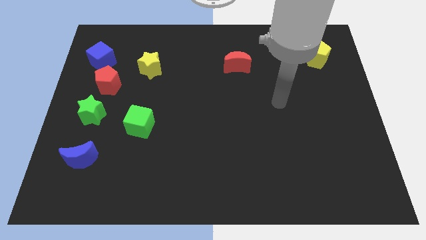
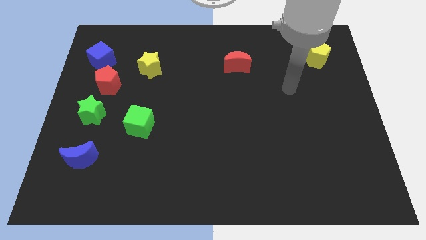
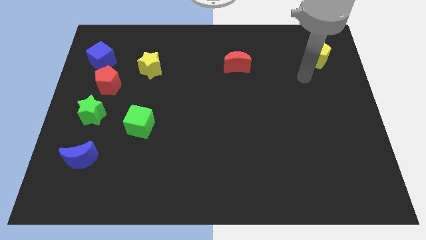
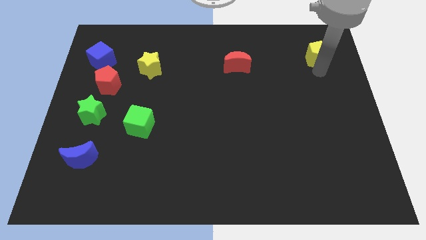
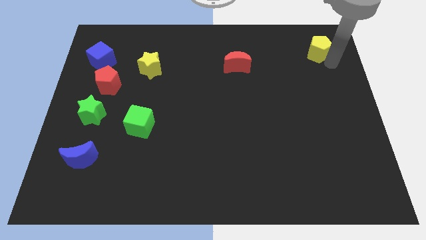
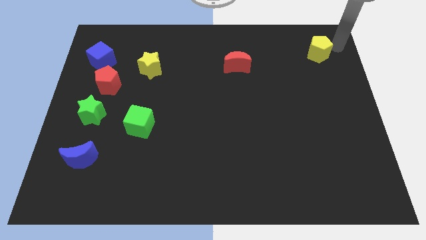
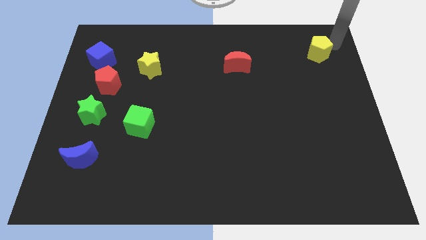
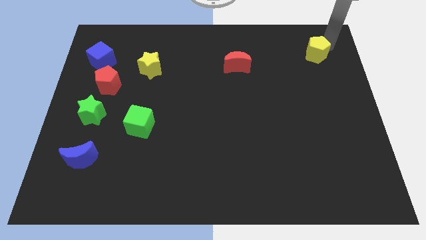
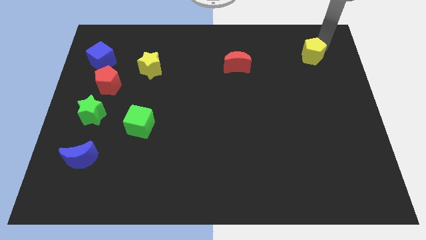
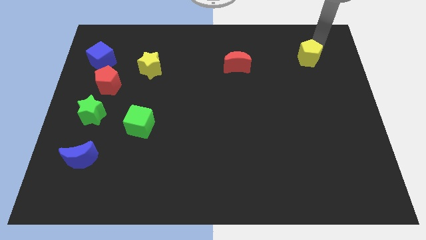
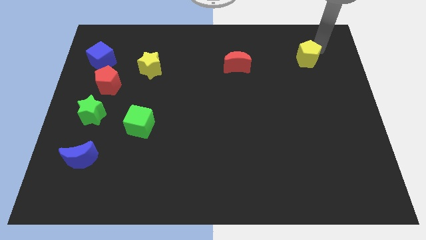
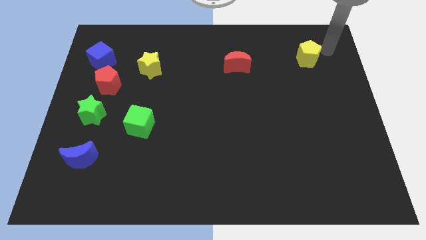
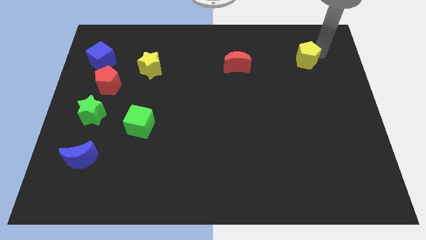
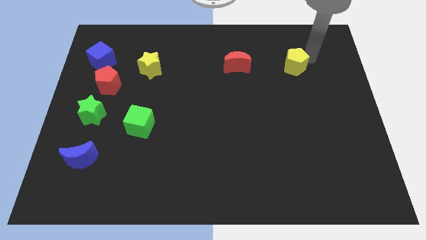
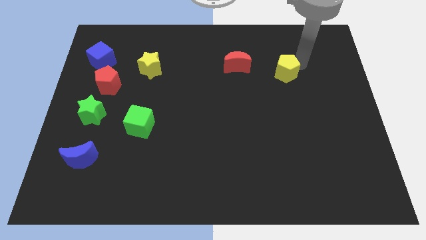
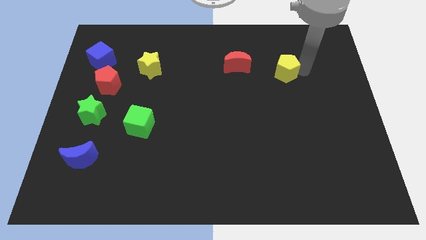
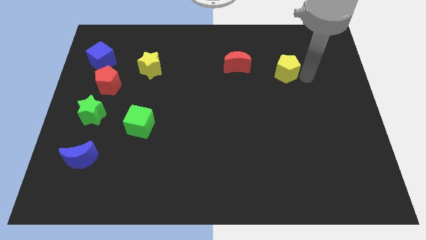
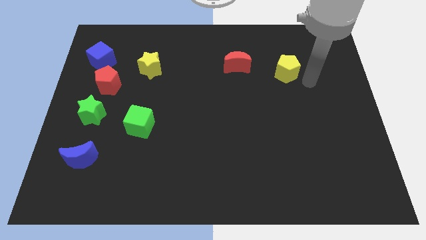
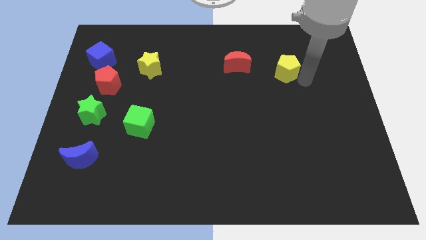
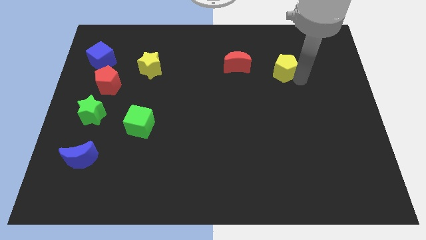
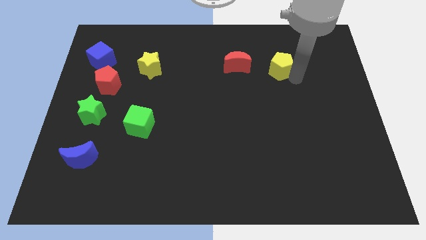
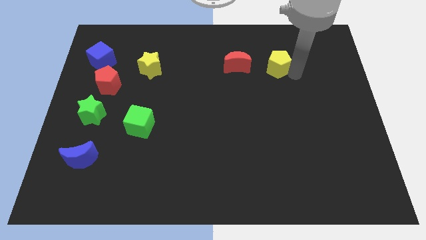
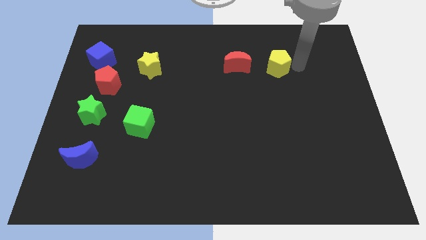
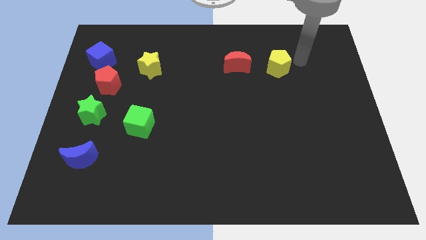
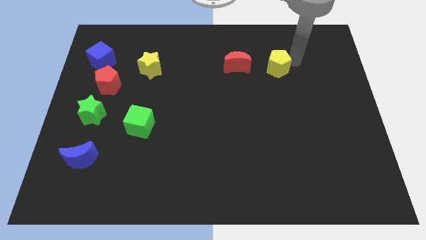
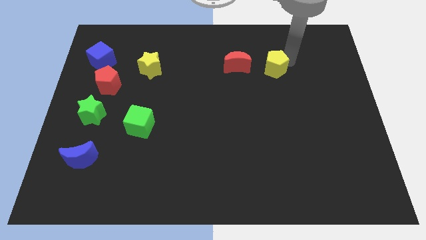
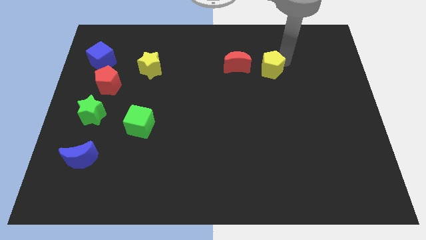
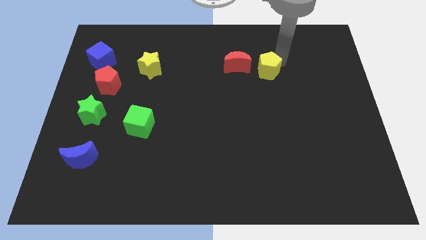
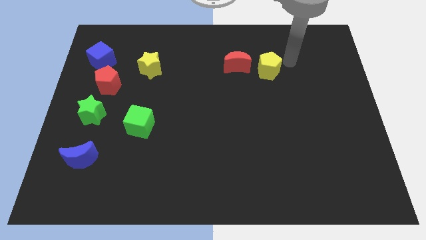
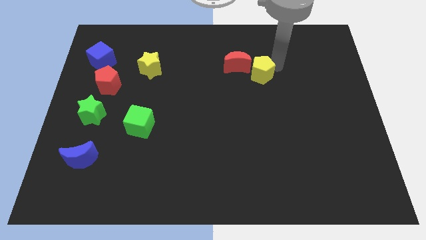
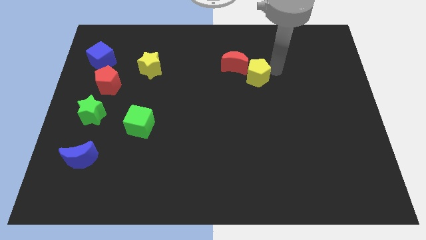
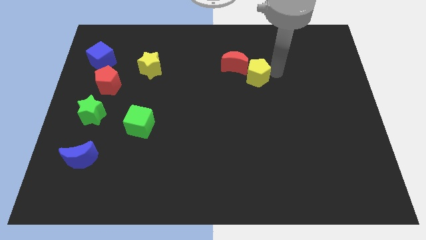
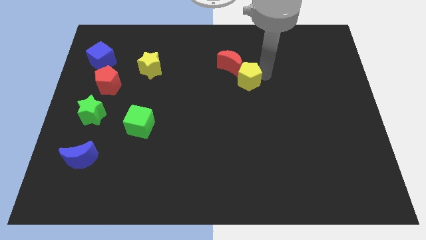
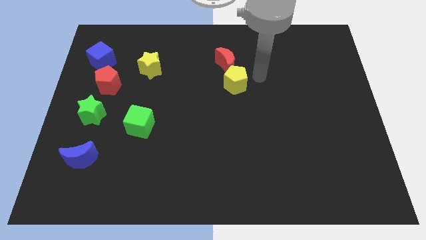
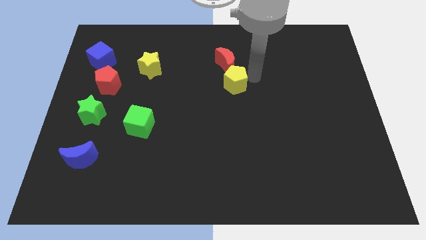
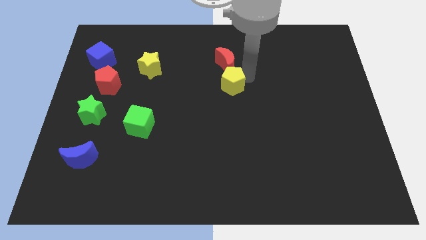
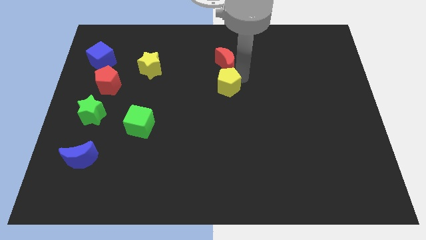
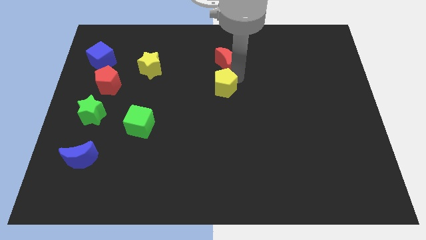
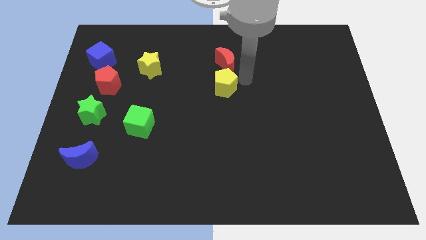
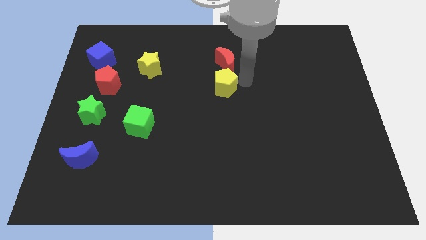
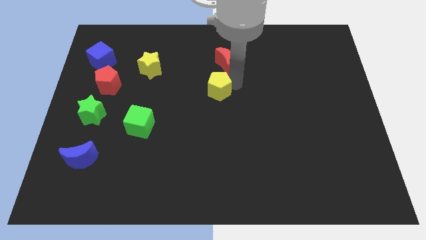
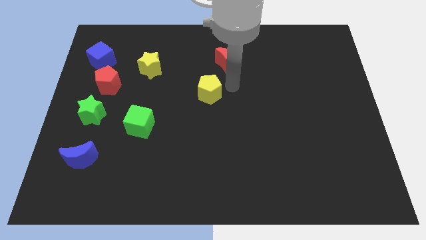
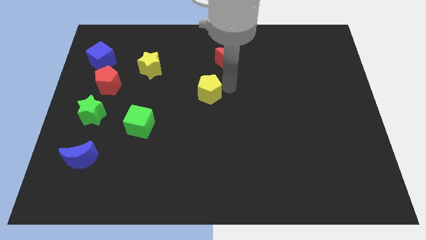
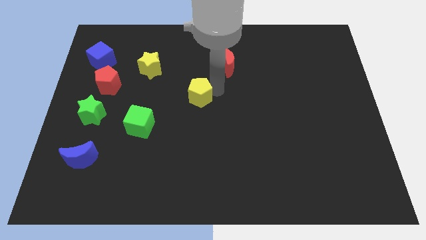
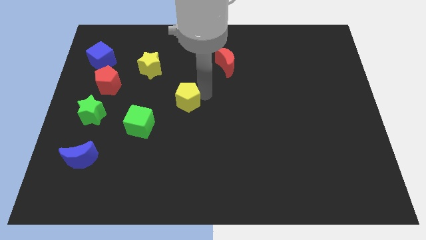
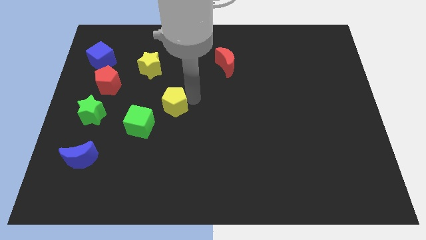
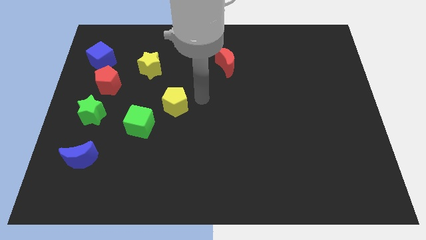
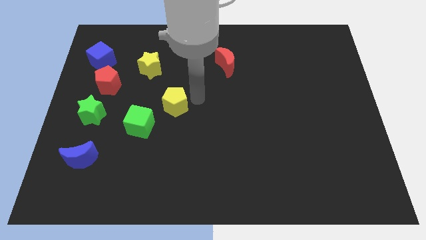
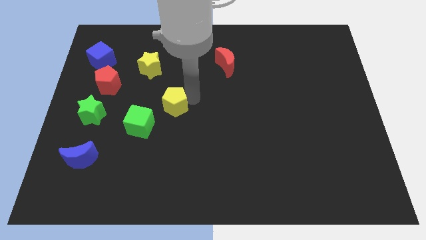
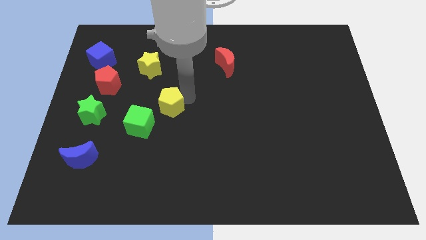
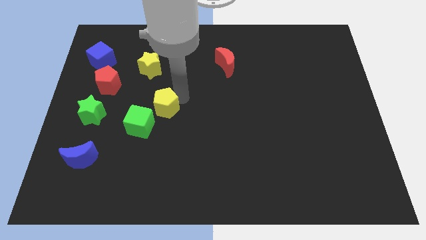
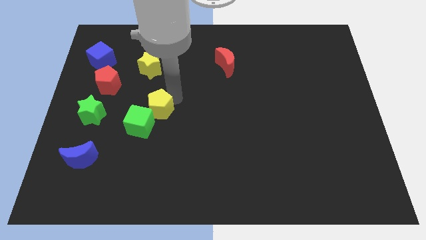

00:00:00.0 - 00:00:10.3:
push the yellow pentagon to the right of the green star

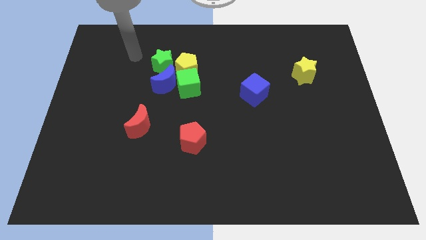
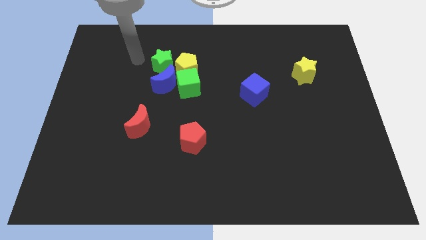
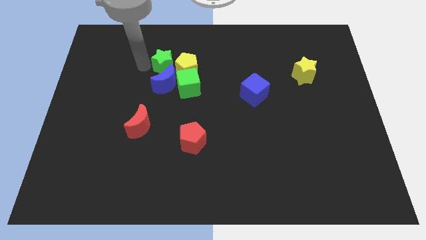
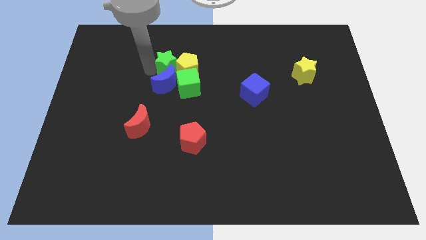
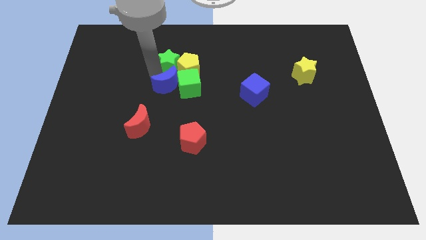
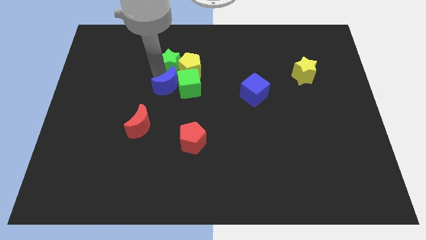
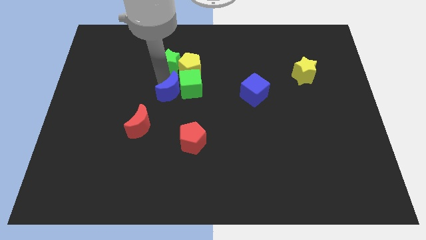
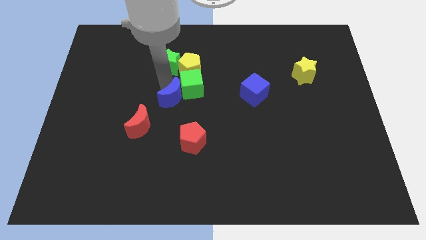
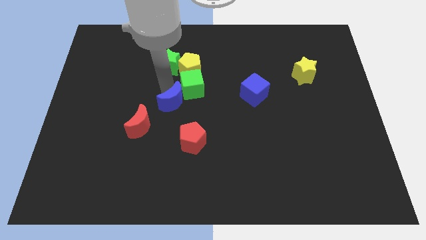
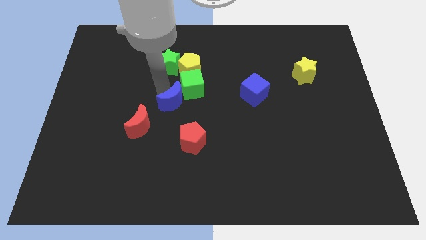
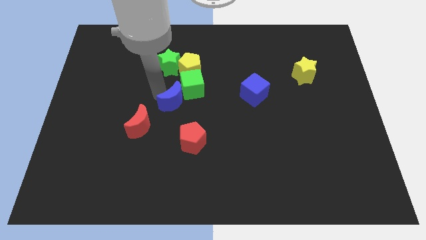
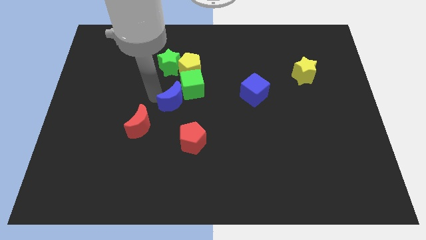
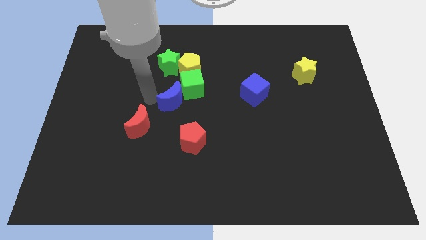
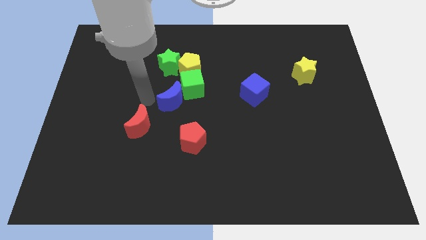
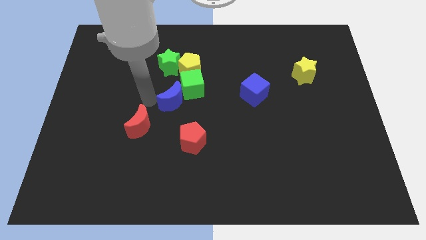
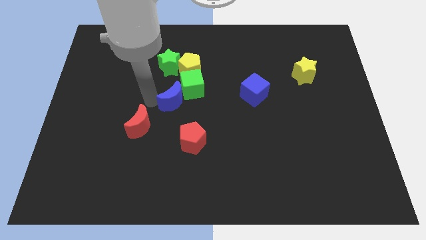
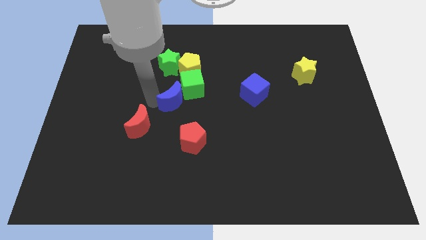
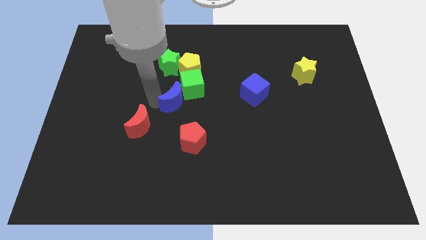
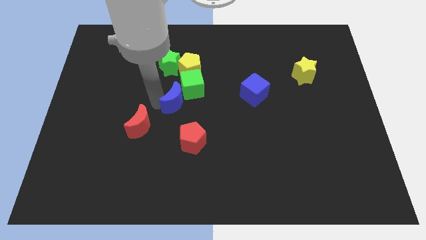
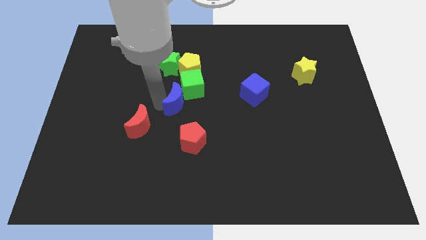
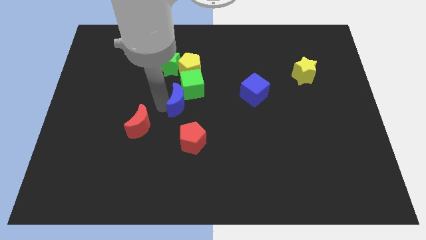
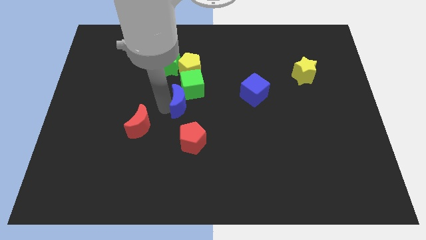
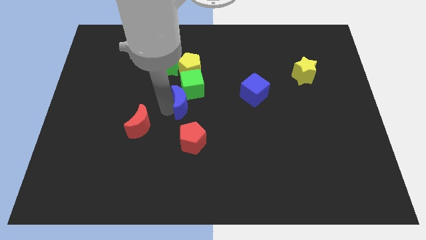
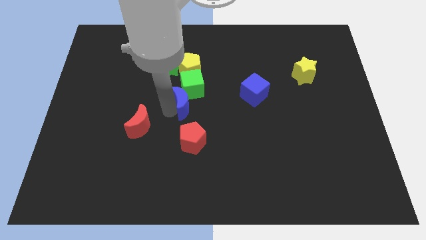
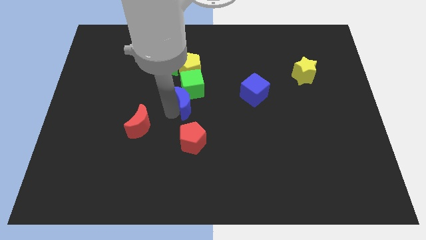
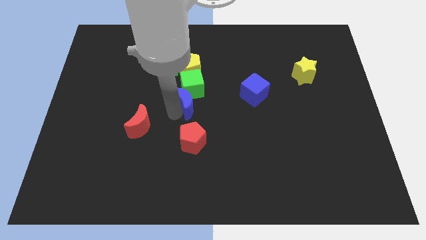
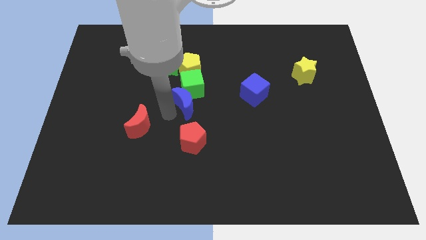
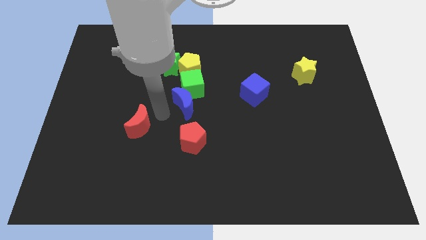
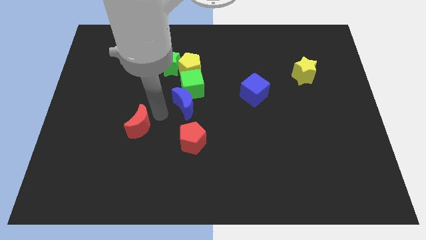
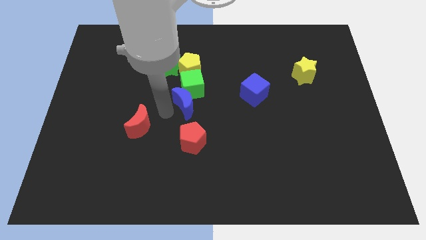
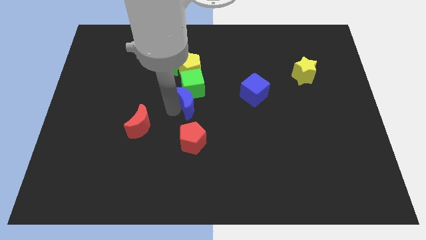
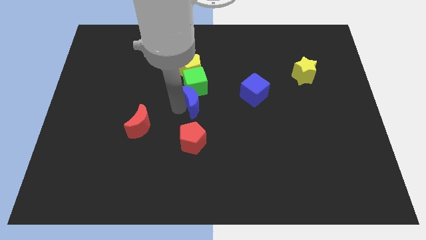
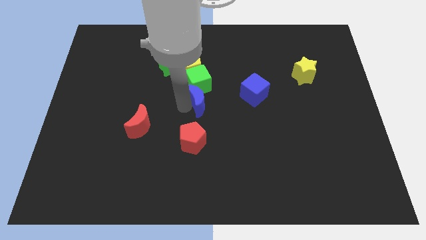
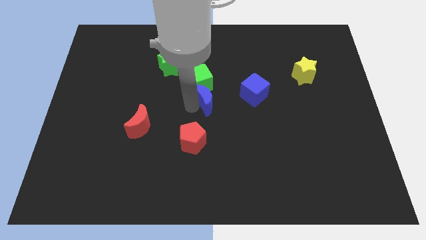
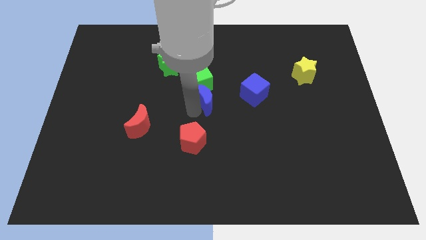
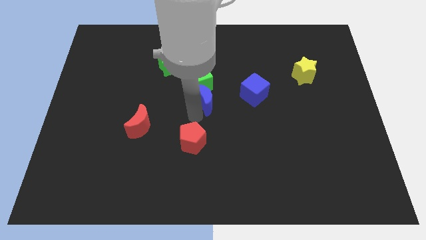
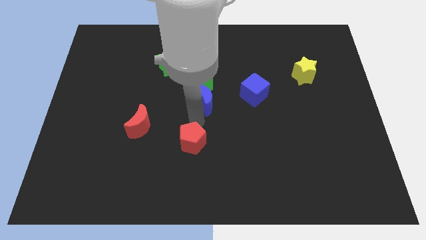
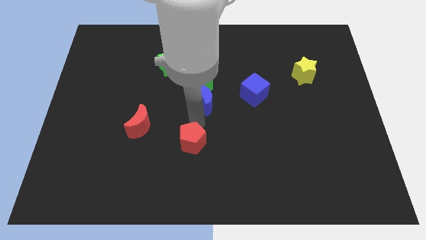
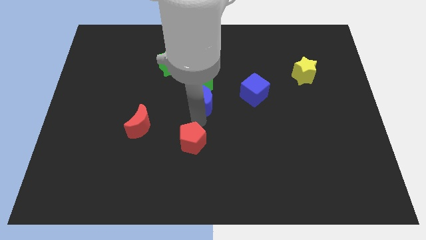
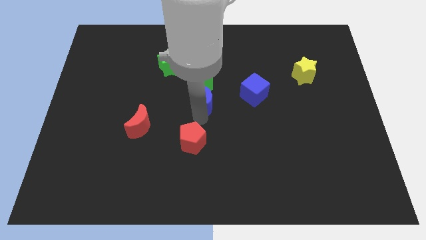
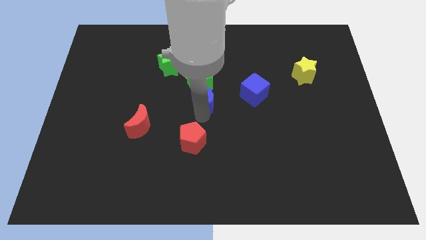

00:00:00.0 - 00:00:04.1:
put the blue moon to the bottom right side of the yellow pentagon
